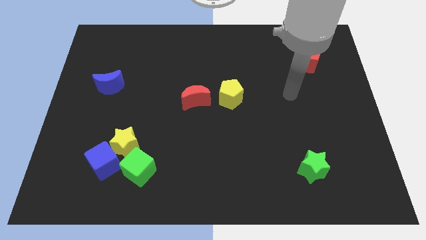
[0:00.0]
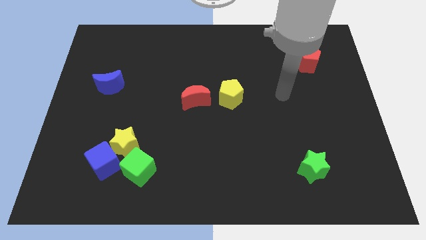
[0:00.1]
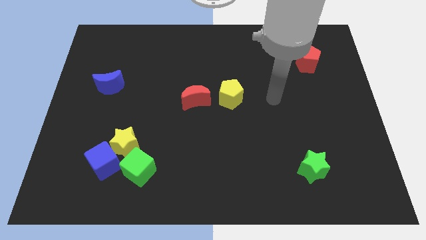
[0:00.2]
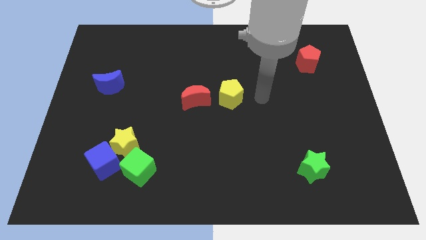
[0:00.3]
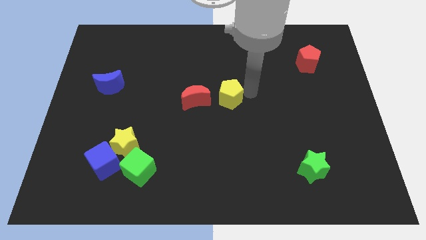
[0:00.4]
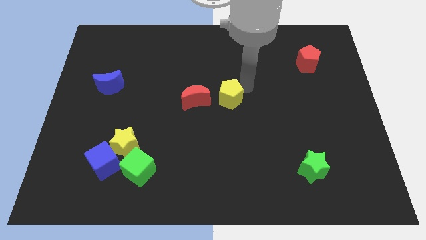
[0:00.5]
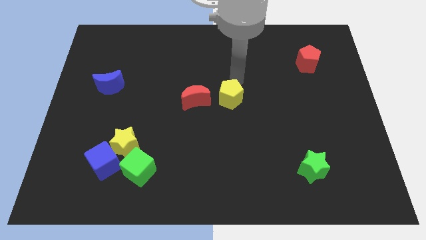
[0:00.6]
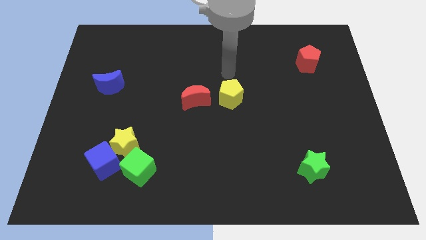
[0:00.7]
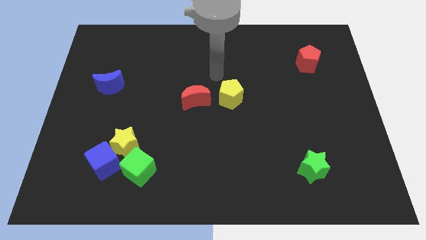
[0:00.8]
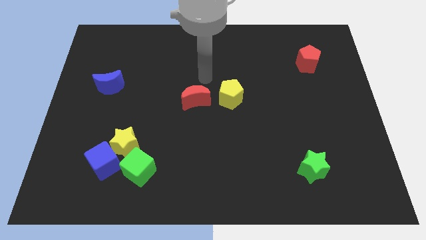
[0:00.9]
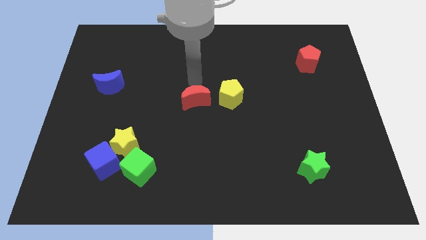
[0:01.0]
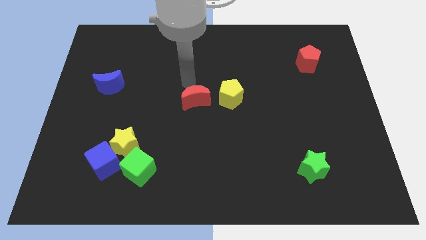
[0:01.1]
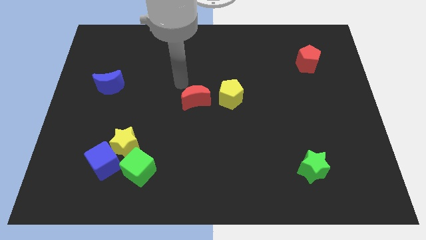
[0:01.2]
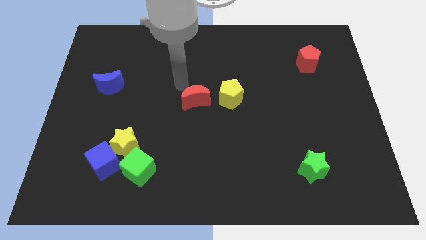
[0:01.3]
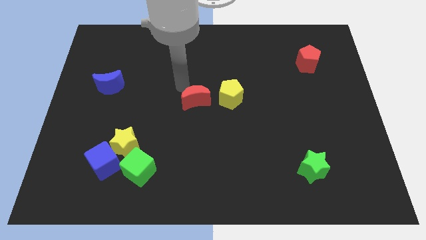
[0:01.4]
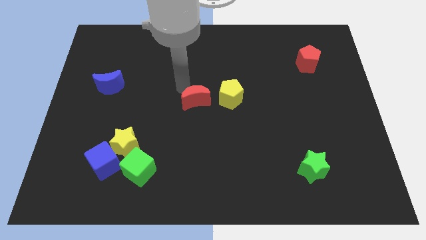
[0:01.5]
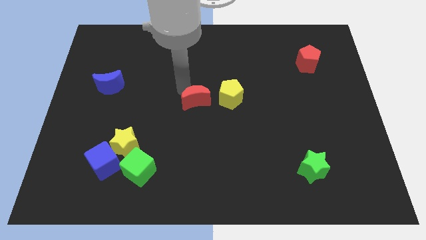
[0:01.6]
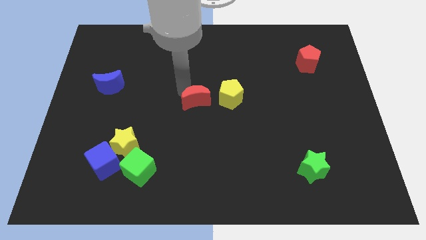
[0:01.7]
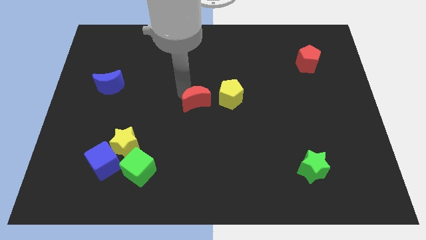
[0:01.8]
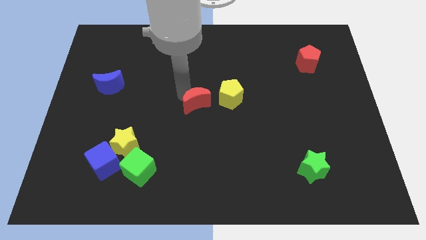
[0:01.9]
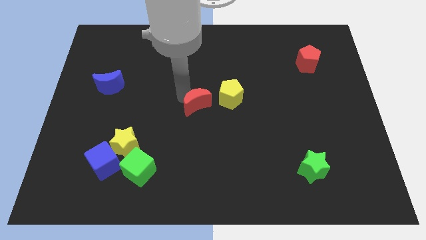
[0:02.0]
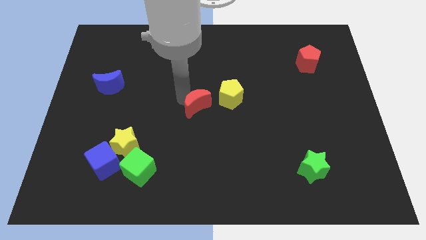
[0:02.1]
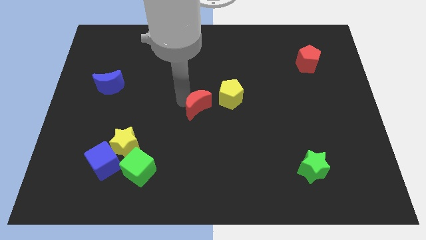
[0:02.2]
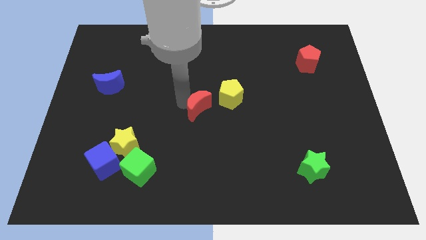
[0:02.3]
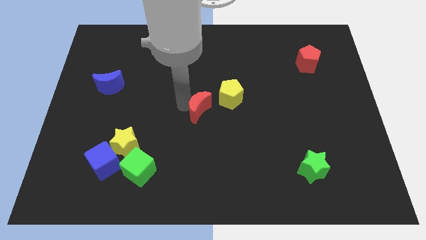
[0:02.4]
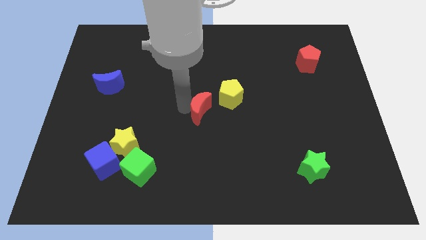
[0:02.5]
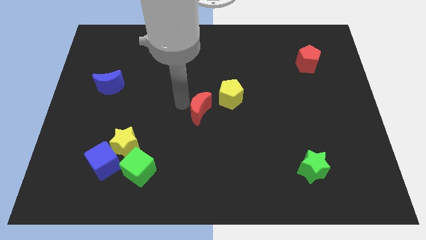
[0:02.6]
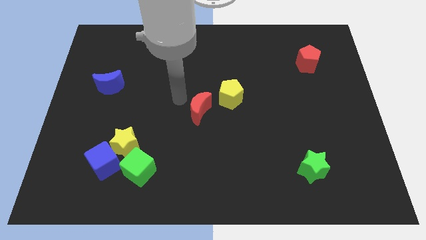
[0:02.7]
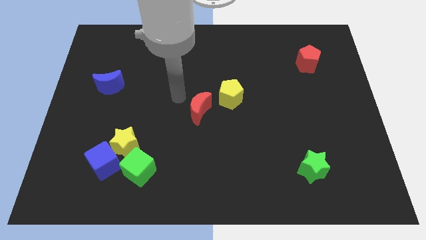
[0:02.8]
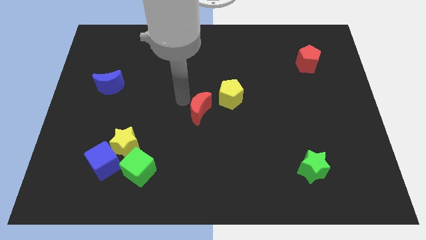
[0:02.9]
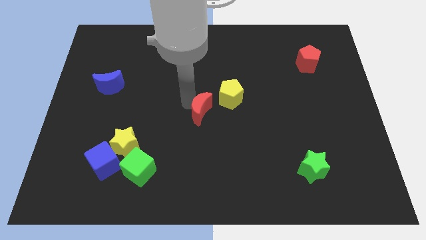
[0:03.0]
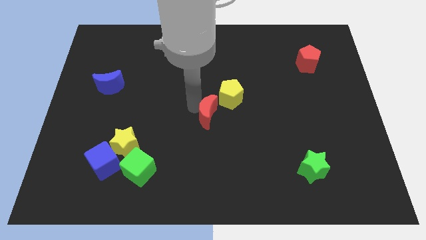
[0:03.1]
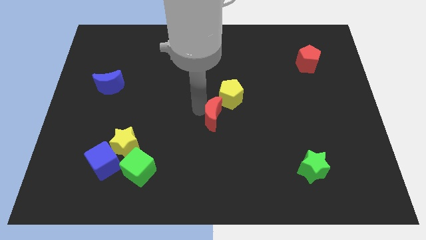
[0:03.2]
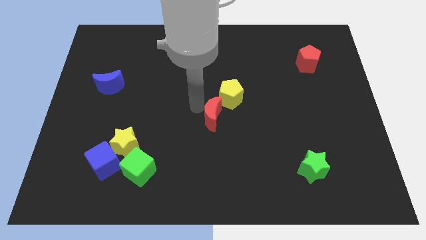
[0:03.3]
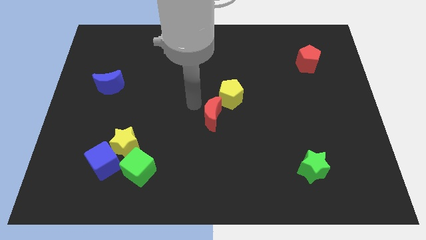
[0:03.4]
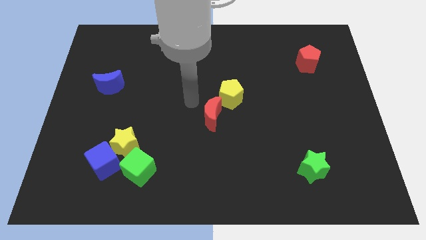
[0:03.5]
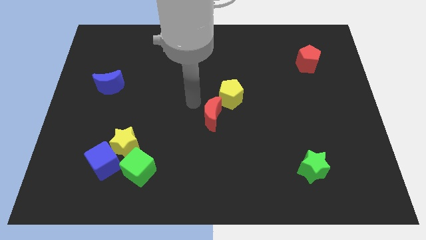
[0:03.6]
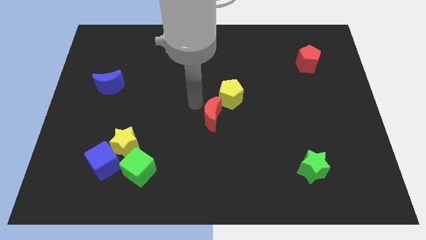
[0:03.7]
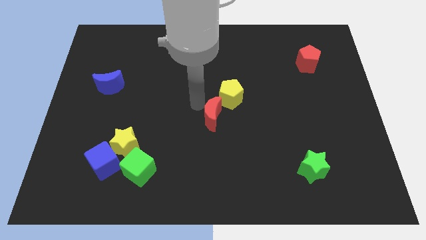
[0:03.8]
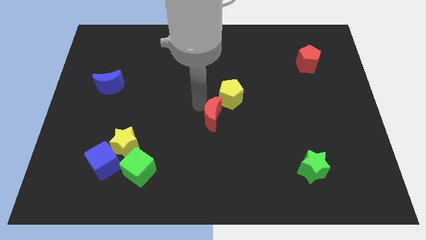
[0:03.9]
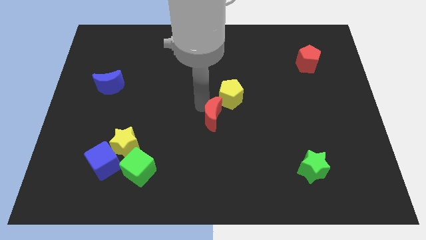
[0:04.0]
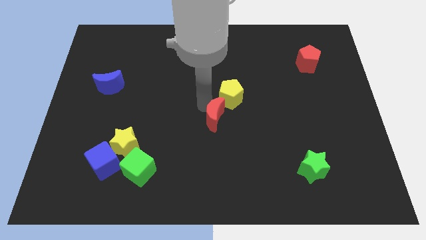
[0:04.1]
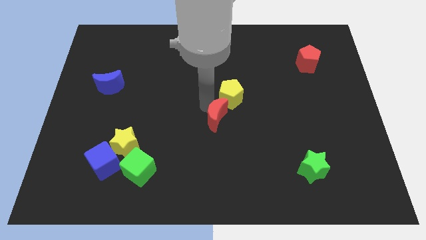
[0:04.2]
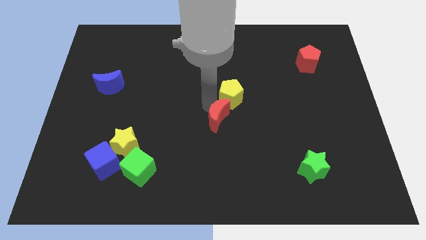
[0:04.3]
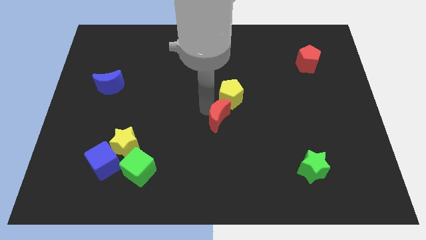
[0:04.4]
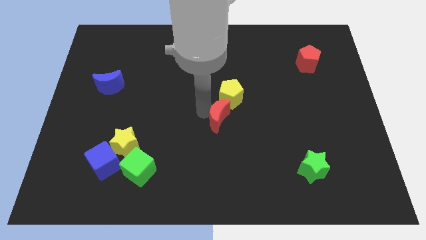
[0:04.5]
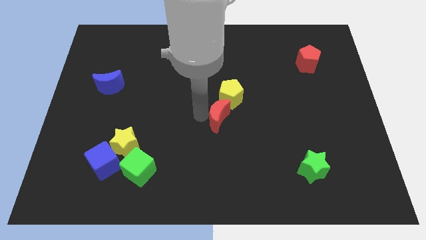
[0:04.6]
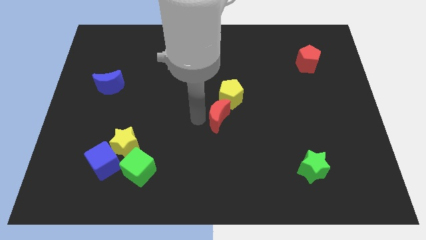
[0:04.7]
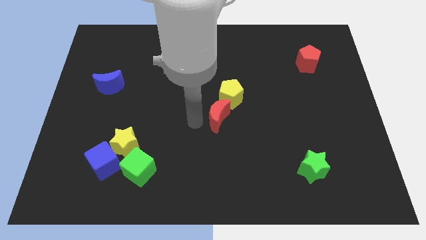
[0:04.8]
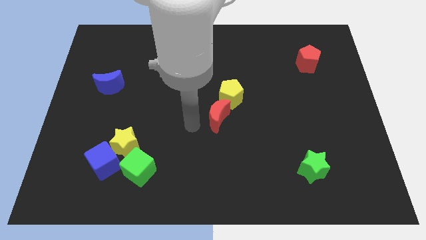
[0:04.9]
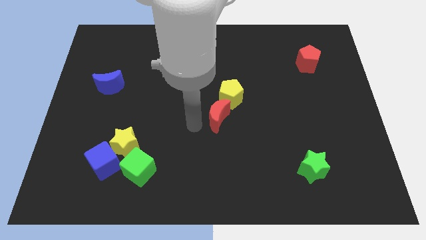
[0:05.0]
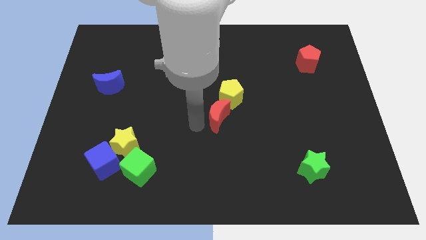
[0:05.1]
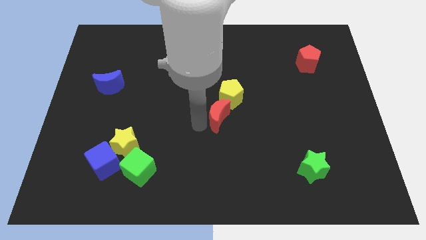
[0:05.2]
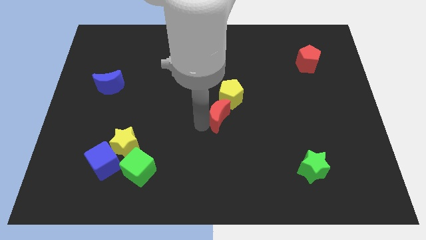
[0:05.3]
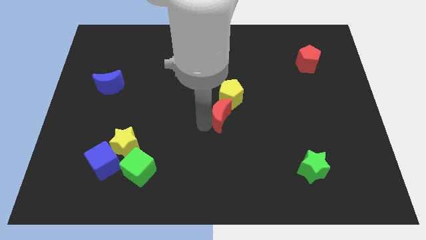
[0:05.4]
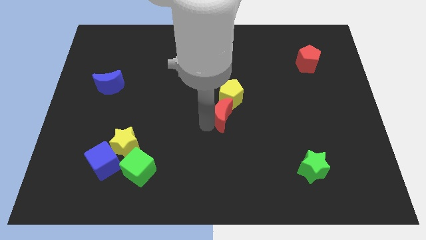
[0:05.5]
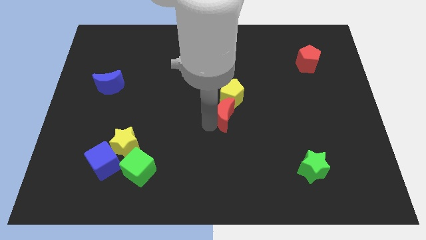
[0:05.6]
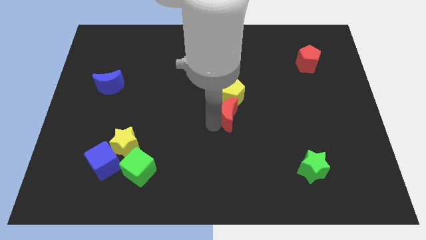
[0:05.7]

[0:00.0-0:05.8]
slide the red moon right a little

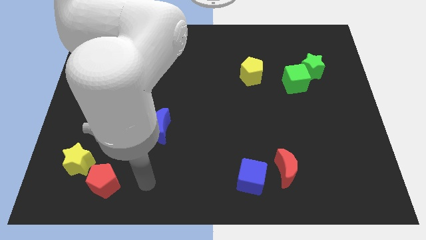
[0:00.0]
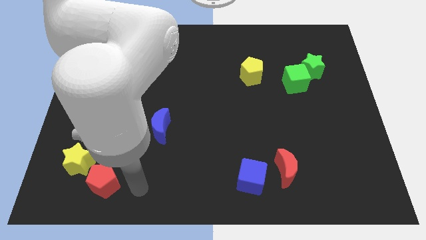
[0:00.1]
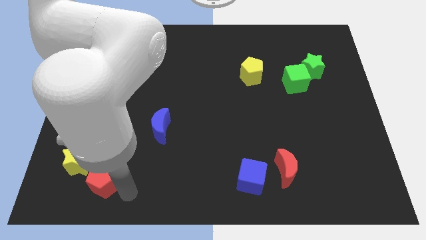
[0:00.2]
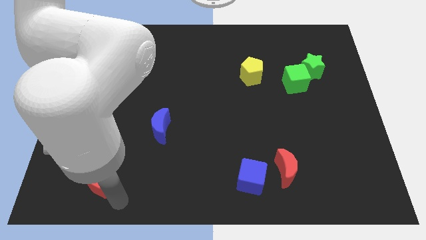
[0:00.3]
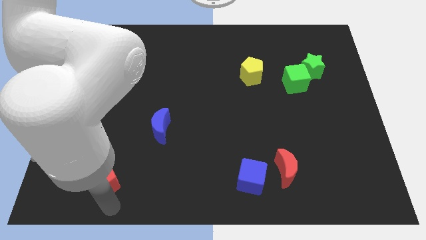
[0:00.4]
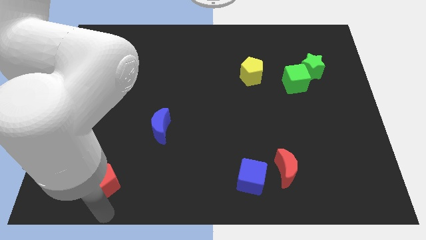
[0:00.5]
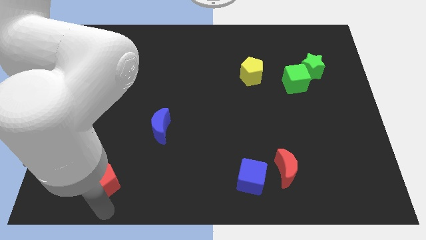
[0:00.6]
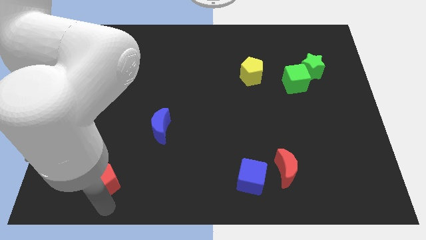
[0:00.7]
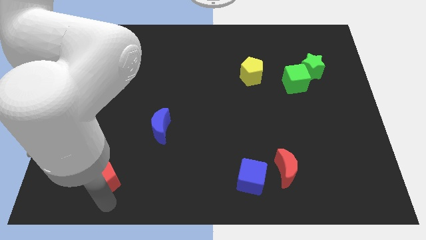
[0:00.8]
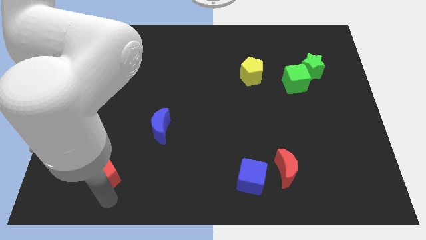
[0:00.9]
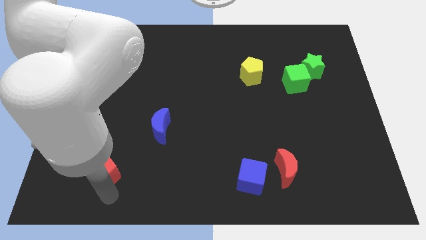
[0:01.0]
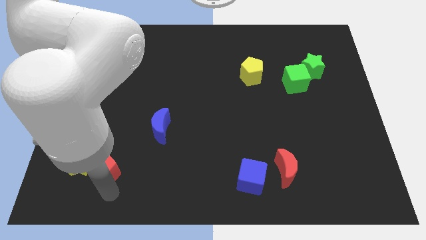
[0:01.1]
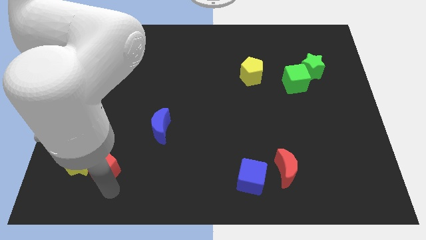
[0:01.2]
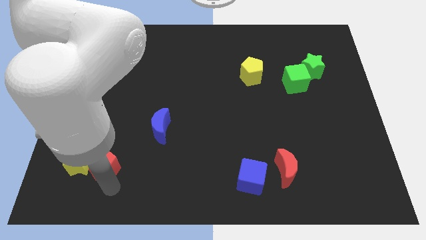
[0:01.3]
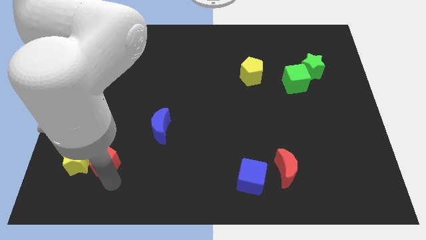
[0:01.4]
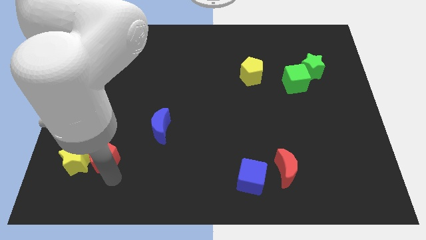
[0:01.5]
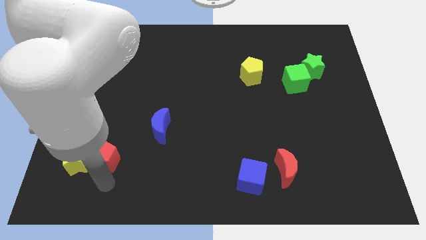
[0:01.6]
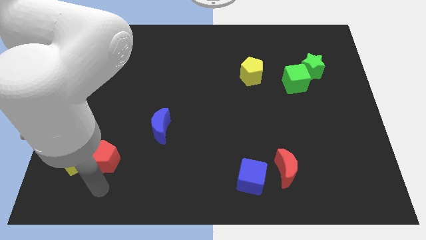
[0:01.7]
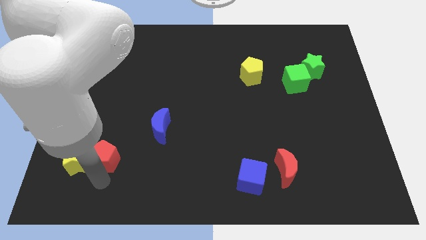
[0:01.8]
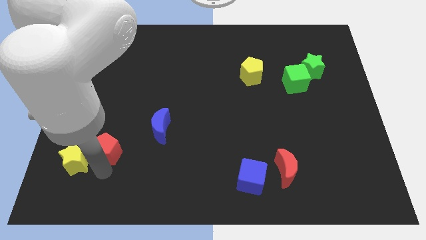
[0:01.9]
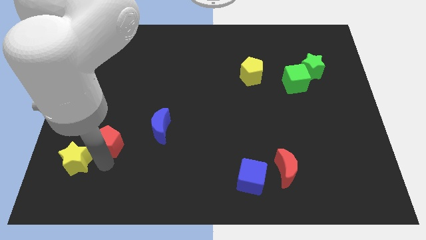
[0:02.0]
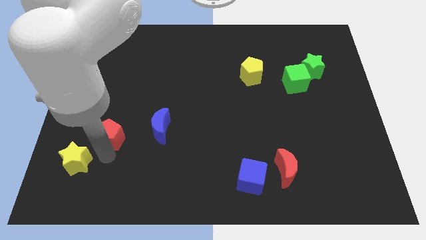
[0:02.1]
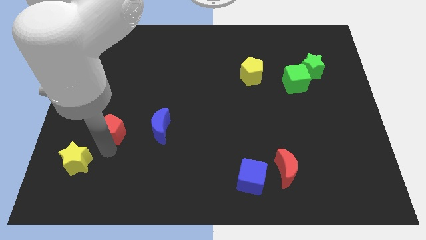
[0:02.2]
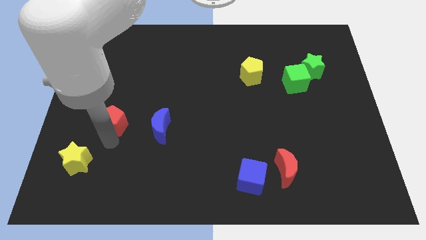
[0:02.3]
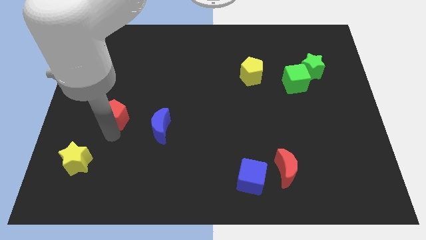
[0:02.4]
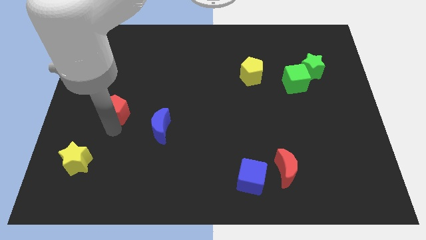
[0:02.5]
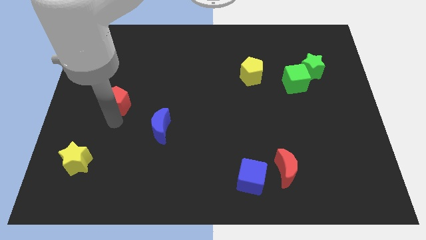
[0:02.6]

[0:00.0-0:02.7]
push the red pentagon upwards
